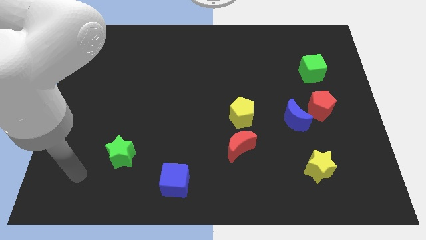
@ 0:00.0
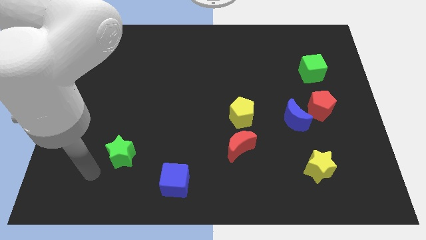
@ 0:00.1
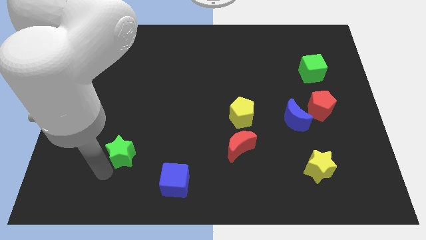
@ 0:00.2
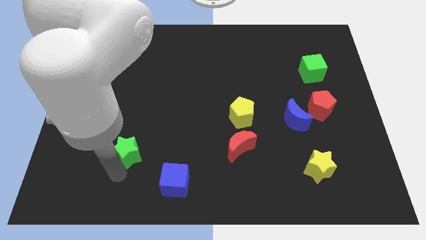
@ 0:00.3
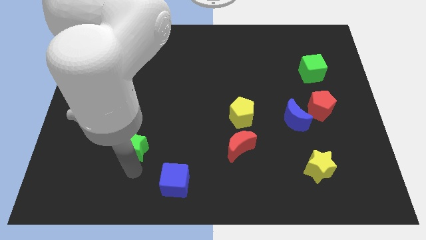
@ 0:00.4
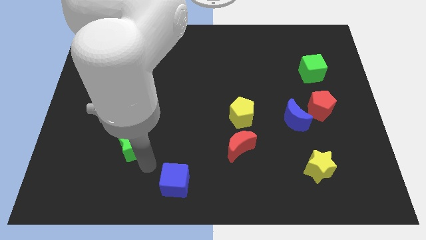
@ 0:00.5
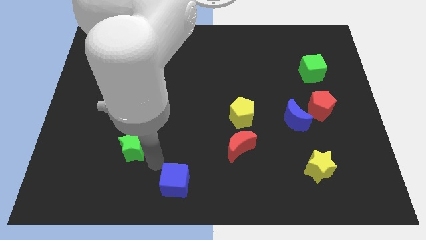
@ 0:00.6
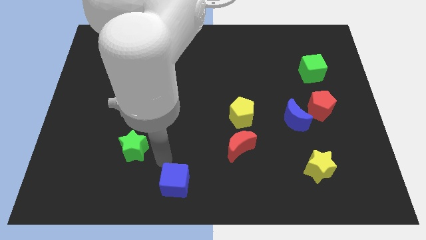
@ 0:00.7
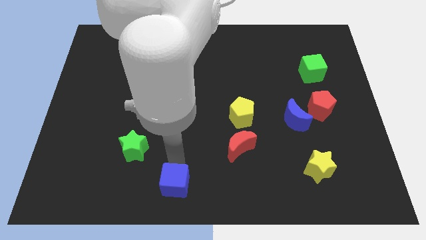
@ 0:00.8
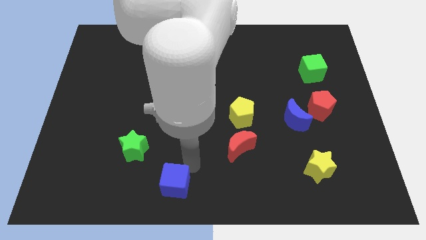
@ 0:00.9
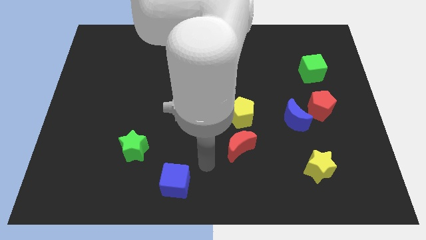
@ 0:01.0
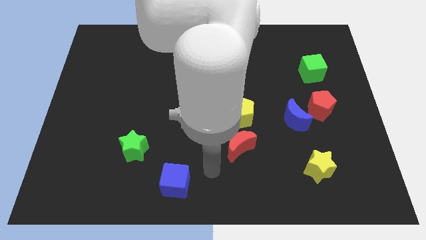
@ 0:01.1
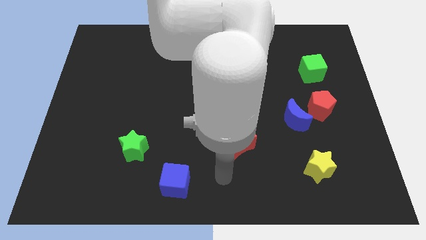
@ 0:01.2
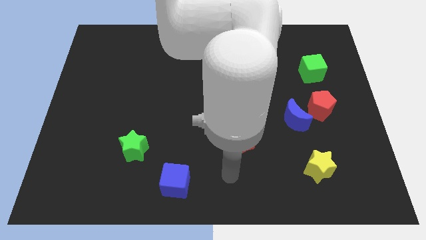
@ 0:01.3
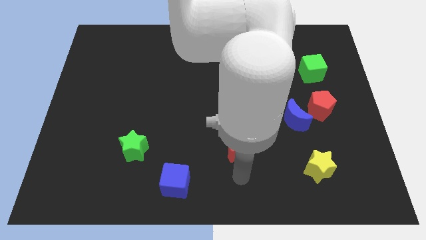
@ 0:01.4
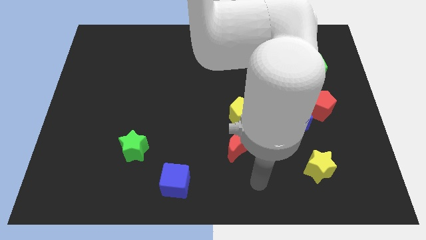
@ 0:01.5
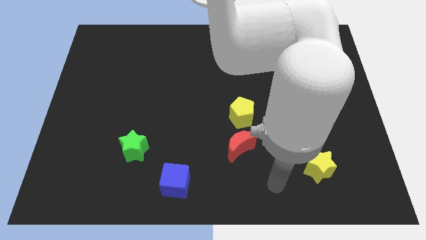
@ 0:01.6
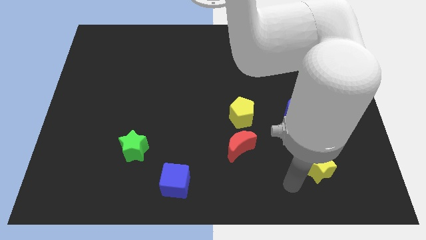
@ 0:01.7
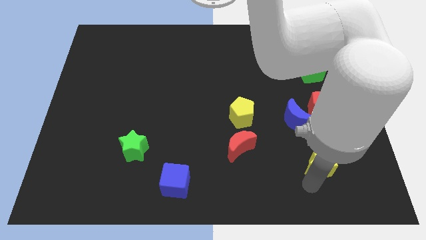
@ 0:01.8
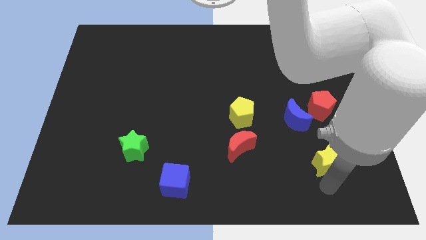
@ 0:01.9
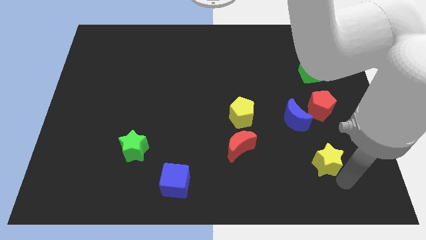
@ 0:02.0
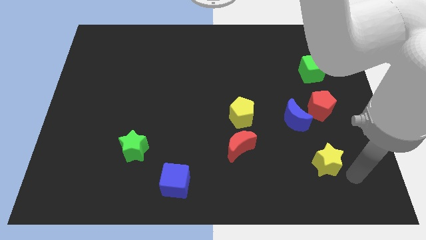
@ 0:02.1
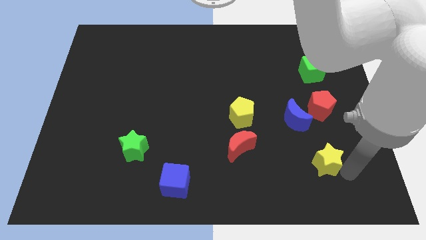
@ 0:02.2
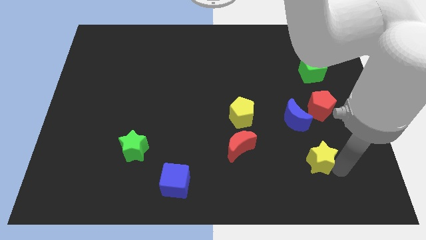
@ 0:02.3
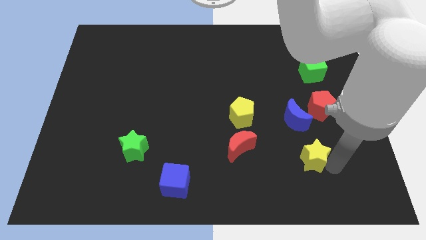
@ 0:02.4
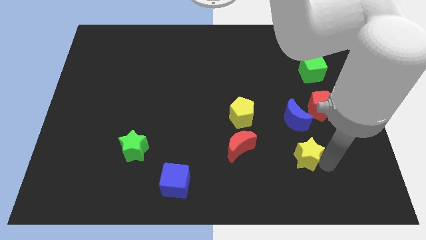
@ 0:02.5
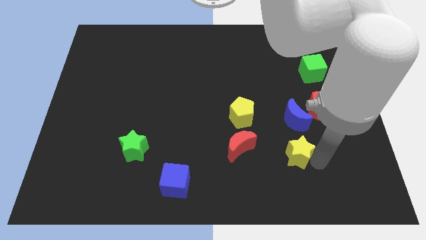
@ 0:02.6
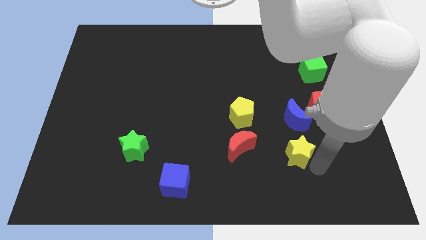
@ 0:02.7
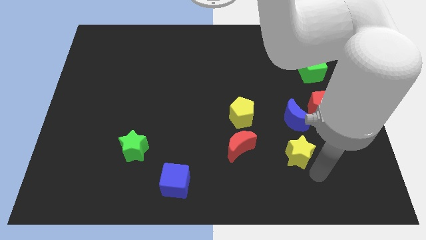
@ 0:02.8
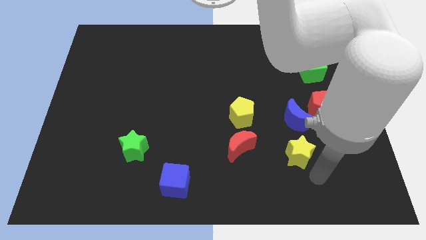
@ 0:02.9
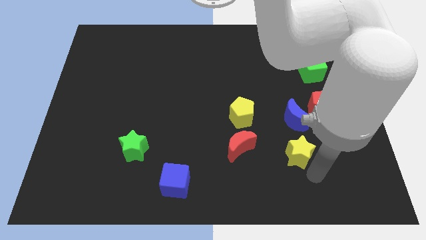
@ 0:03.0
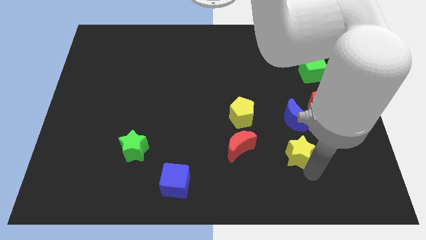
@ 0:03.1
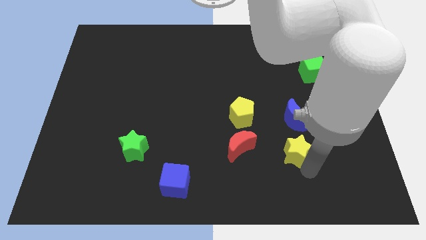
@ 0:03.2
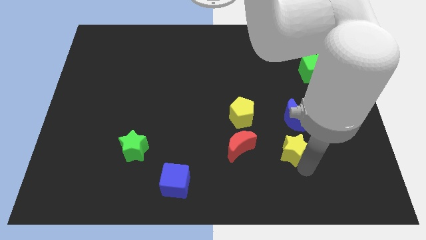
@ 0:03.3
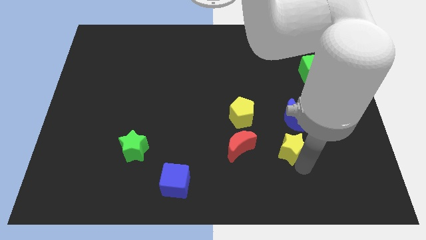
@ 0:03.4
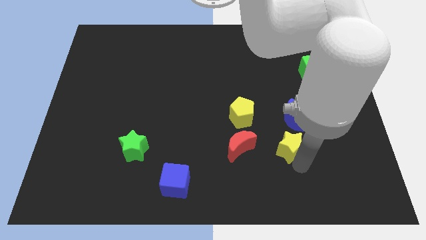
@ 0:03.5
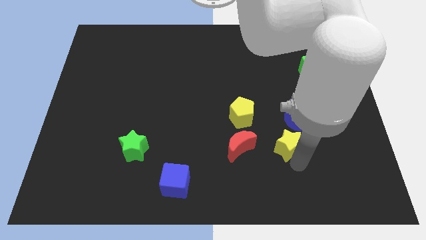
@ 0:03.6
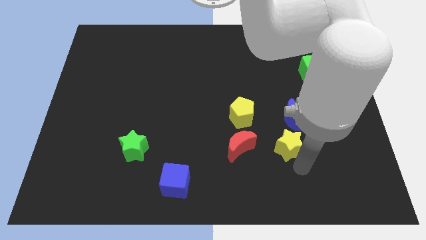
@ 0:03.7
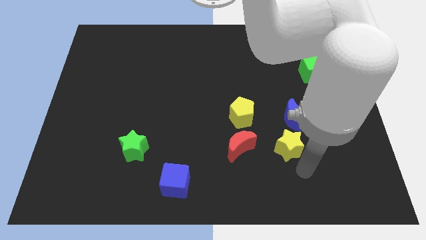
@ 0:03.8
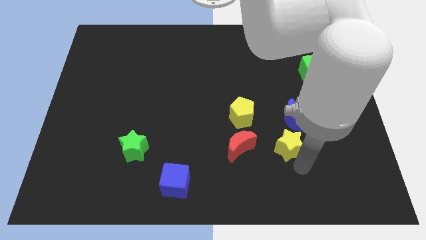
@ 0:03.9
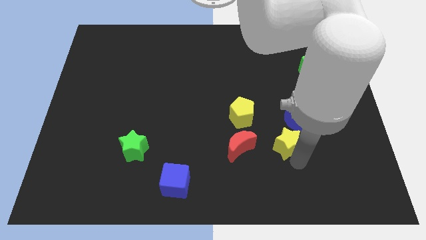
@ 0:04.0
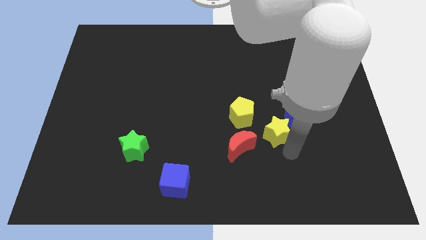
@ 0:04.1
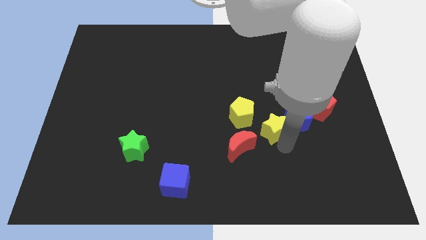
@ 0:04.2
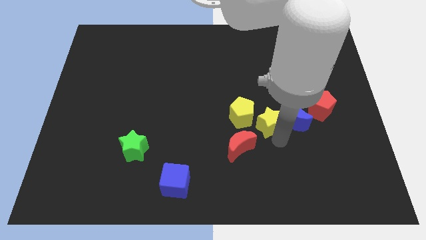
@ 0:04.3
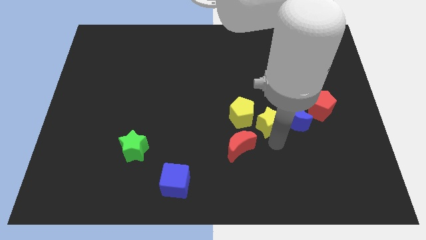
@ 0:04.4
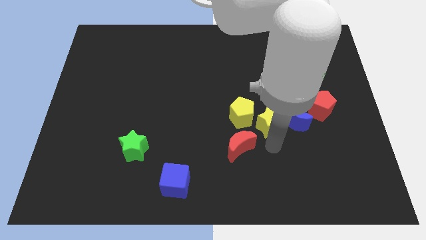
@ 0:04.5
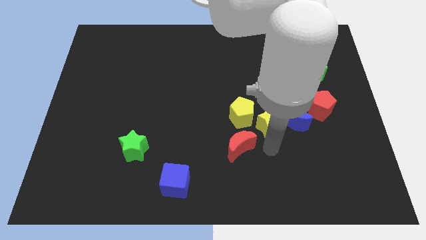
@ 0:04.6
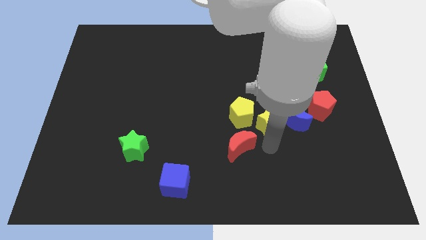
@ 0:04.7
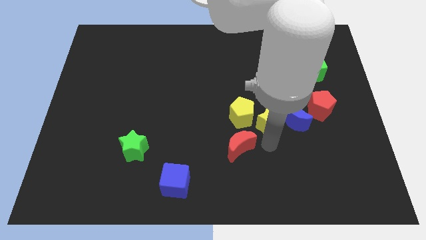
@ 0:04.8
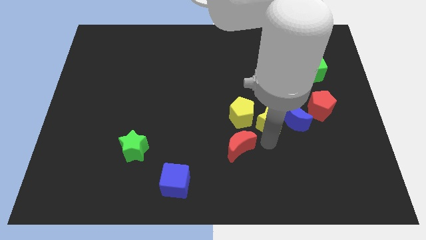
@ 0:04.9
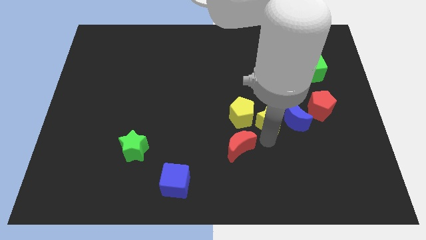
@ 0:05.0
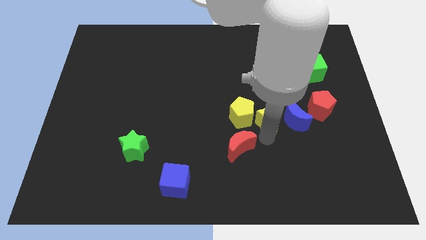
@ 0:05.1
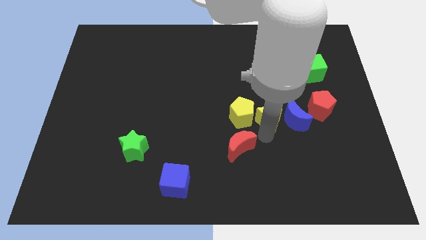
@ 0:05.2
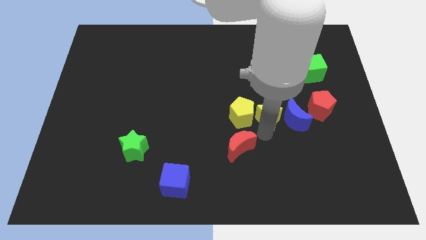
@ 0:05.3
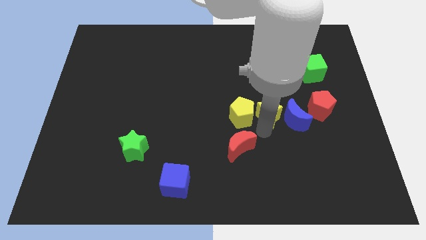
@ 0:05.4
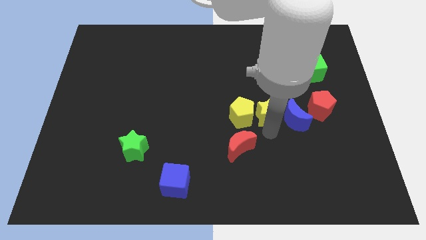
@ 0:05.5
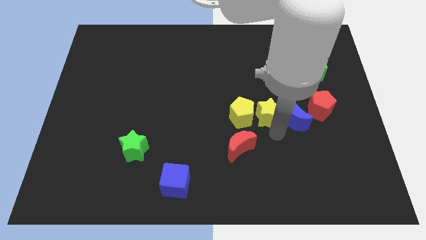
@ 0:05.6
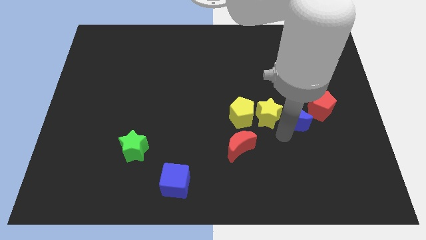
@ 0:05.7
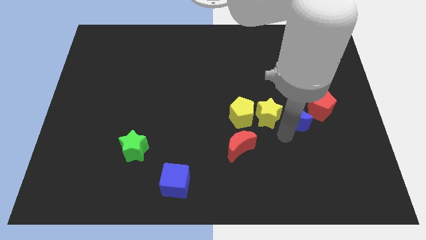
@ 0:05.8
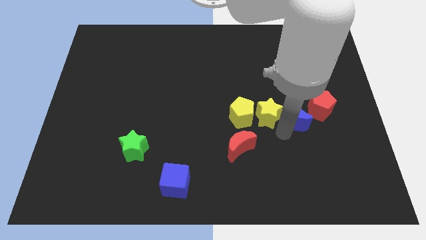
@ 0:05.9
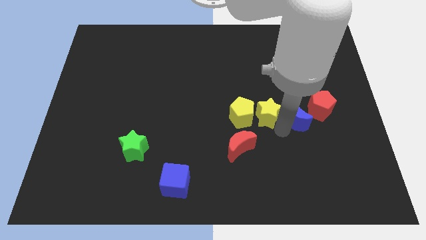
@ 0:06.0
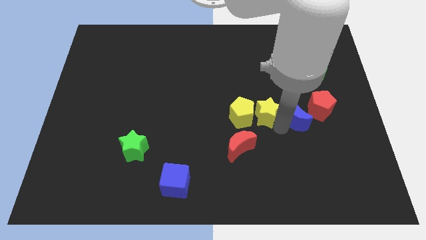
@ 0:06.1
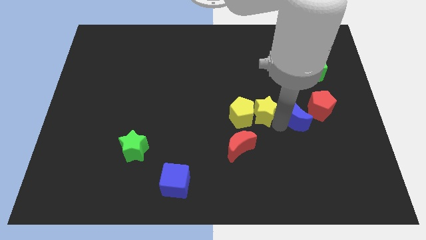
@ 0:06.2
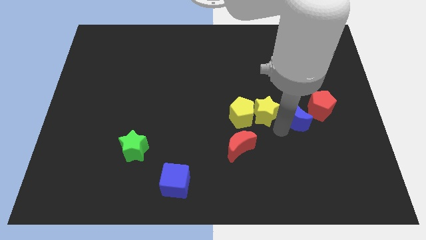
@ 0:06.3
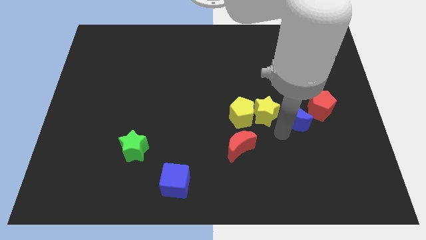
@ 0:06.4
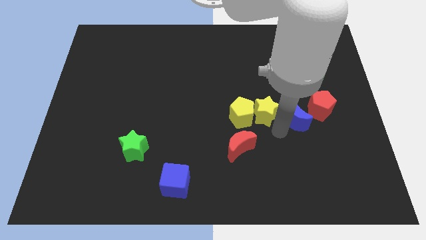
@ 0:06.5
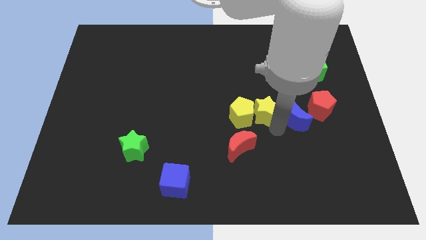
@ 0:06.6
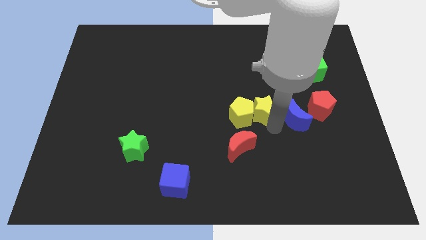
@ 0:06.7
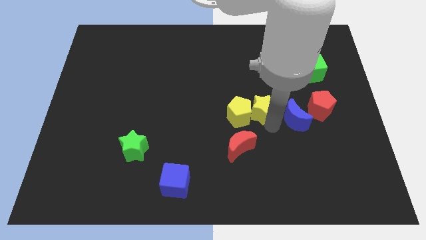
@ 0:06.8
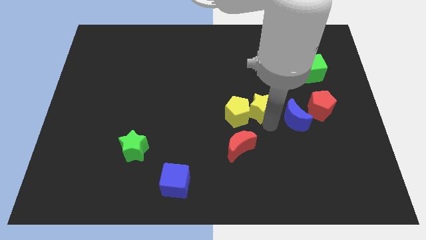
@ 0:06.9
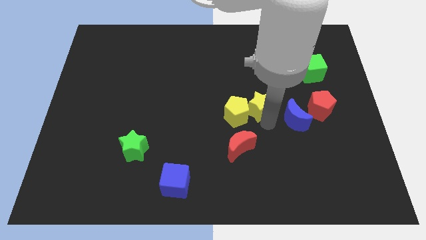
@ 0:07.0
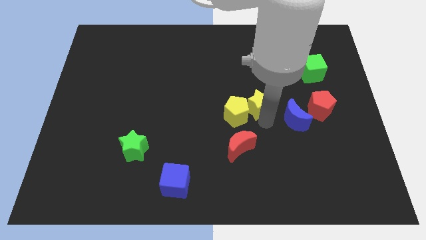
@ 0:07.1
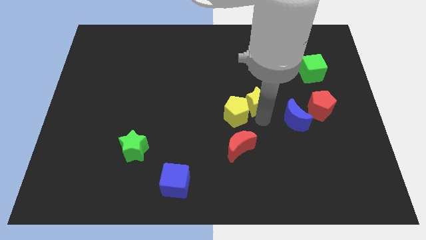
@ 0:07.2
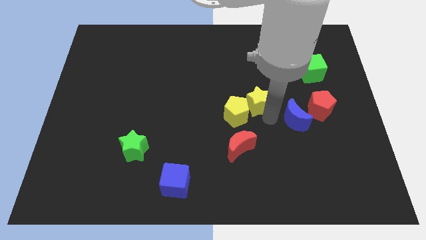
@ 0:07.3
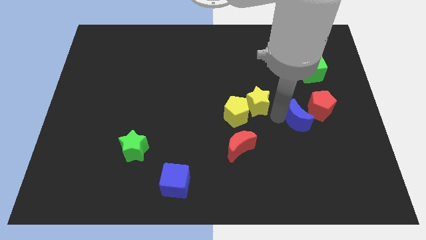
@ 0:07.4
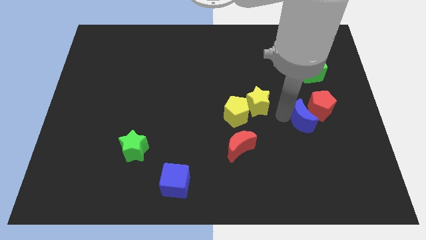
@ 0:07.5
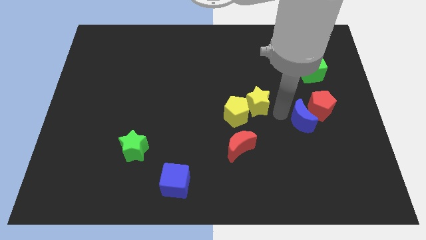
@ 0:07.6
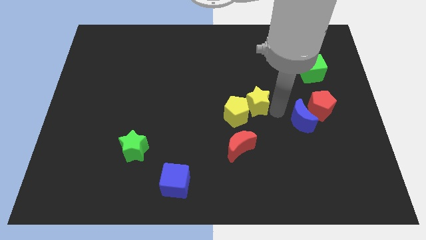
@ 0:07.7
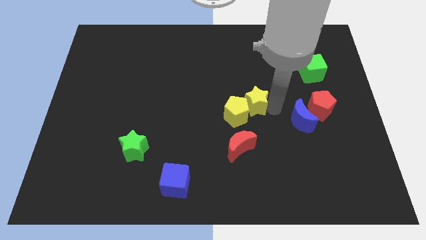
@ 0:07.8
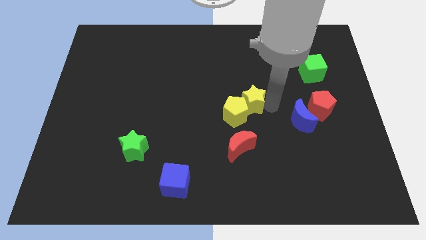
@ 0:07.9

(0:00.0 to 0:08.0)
move the yellow star diagonally up and left
